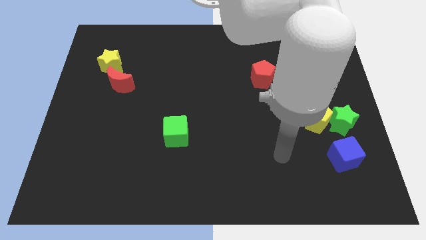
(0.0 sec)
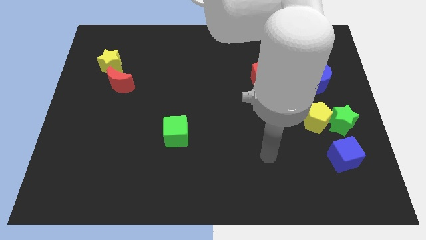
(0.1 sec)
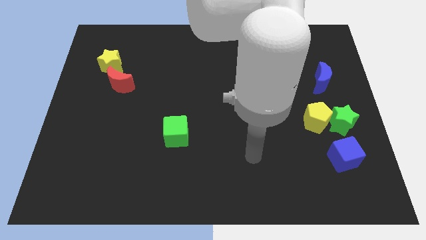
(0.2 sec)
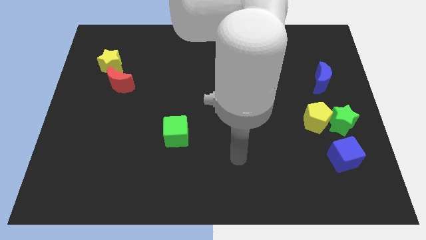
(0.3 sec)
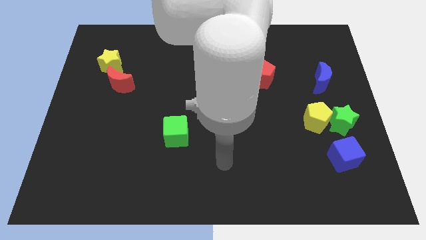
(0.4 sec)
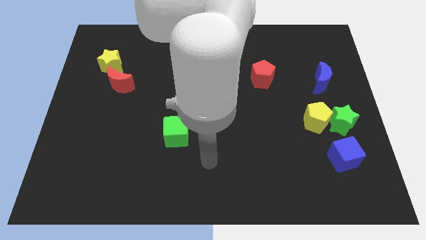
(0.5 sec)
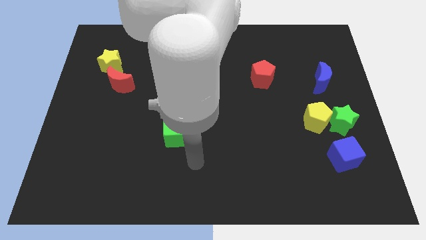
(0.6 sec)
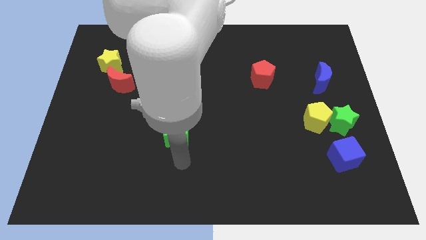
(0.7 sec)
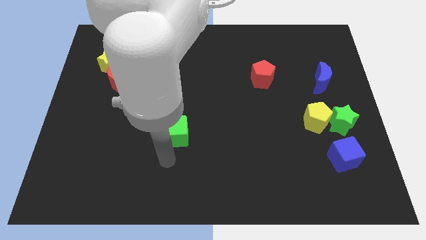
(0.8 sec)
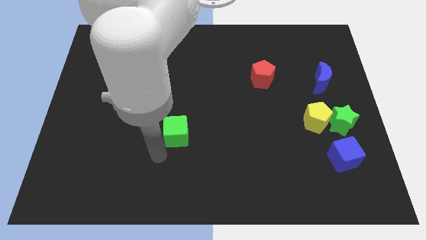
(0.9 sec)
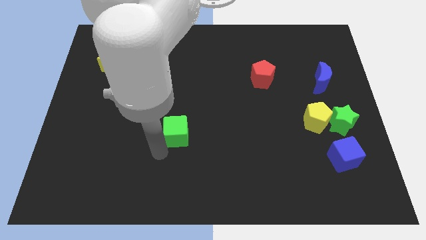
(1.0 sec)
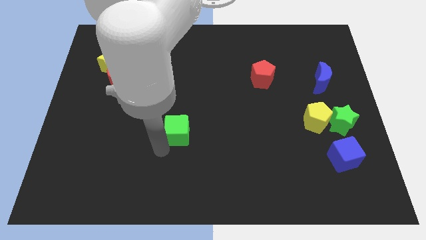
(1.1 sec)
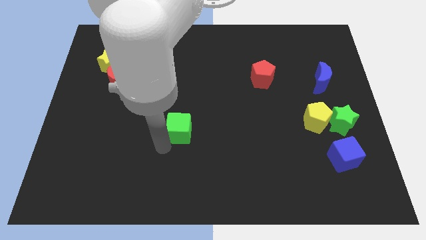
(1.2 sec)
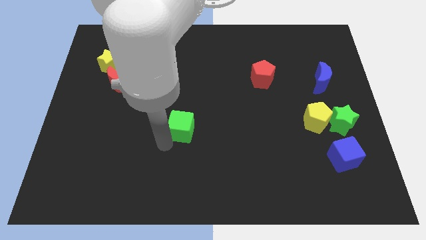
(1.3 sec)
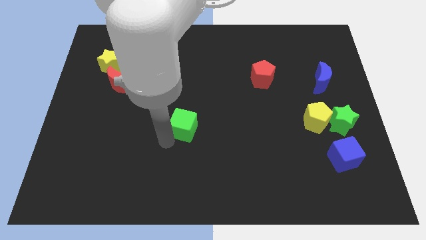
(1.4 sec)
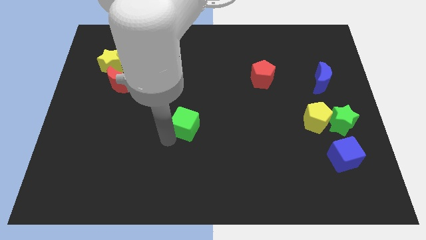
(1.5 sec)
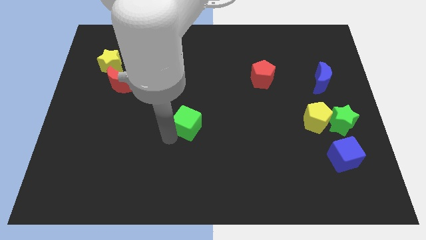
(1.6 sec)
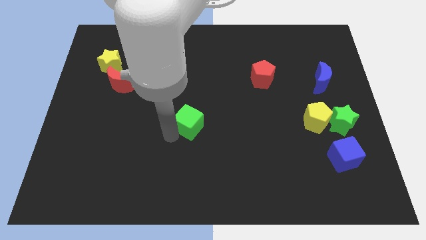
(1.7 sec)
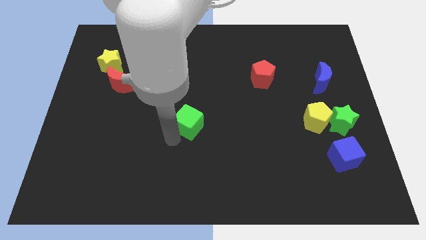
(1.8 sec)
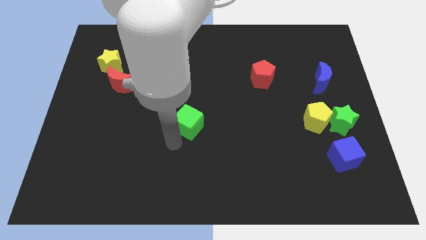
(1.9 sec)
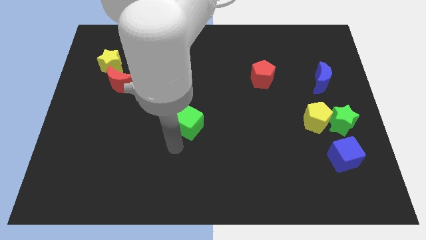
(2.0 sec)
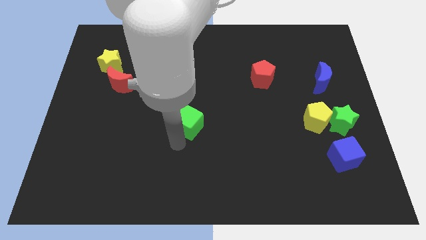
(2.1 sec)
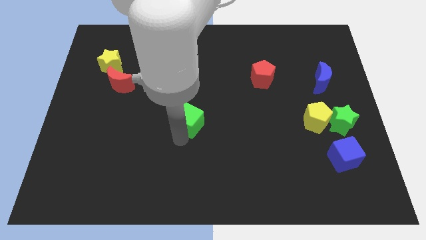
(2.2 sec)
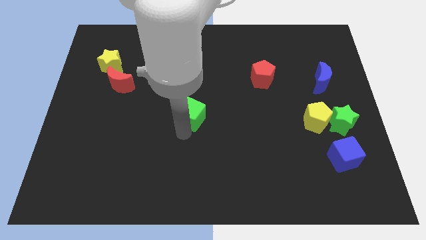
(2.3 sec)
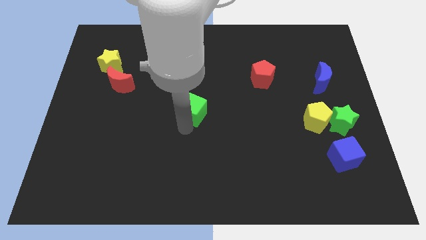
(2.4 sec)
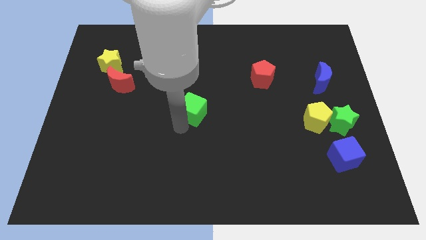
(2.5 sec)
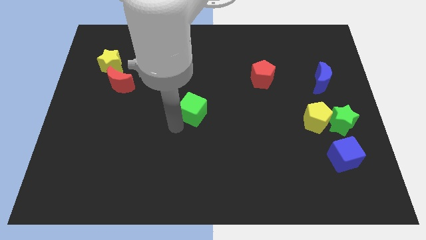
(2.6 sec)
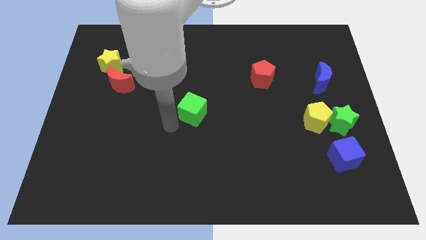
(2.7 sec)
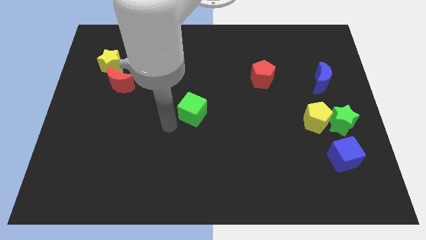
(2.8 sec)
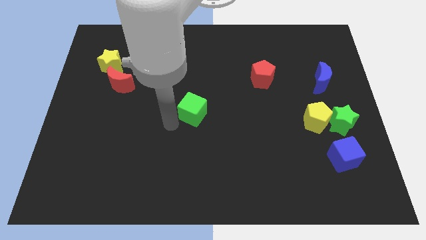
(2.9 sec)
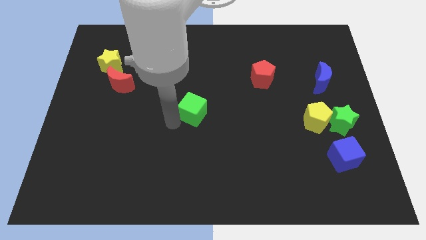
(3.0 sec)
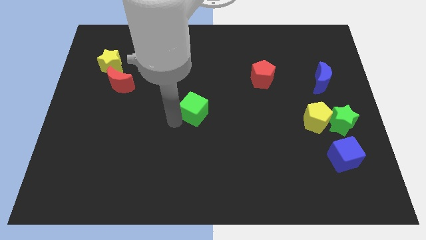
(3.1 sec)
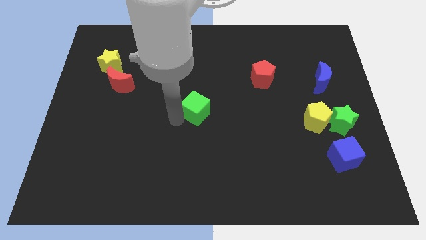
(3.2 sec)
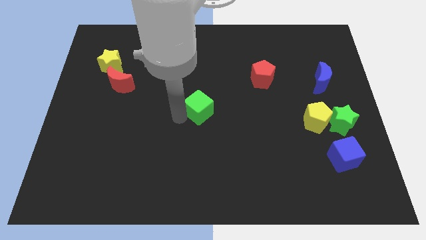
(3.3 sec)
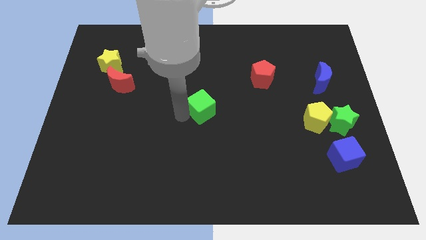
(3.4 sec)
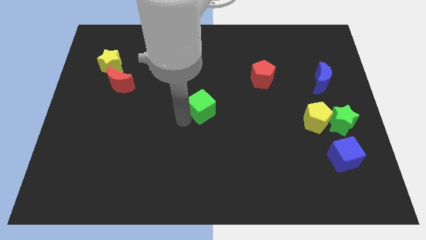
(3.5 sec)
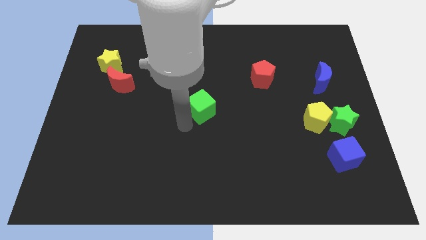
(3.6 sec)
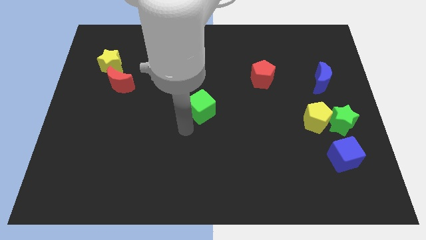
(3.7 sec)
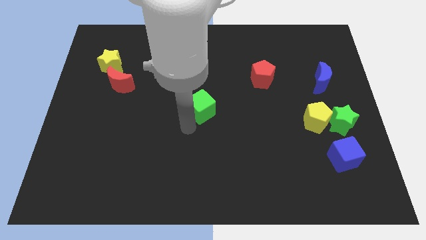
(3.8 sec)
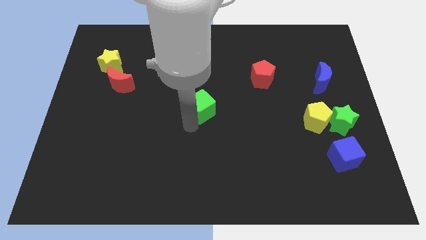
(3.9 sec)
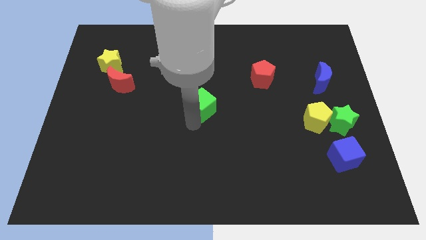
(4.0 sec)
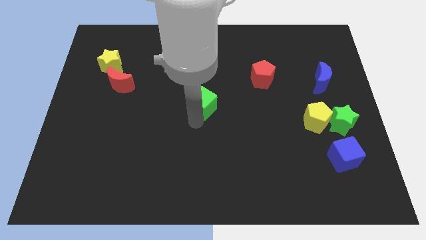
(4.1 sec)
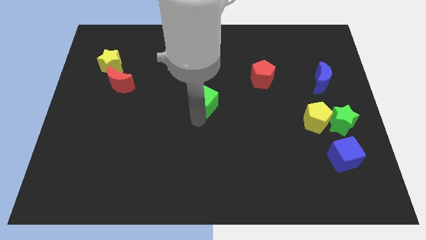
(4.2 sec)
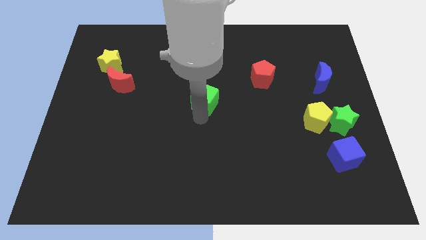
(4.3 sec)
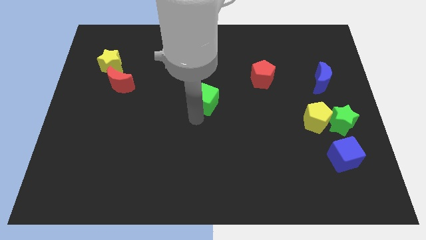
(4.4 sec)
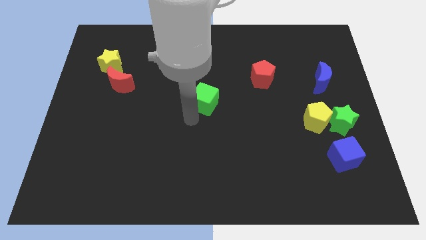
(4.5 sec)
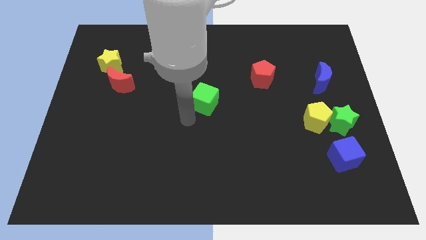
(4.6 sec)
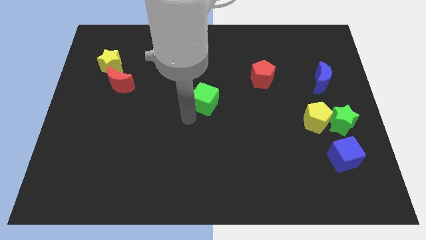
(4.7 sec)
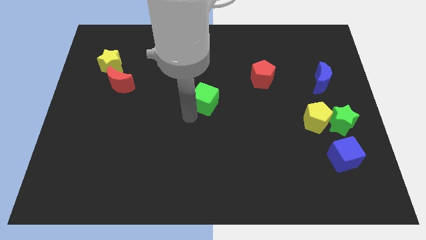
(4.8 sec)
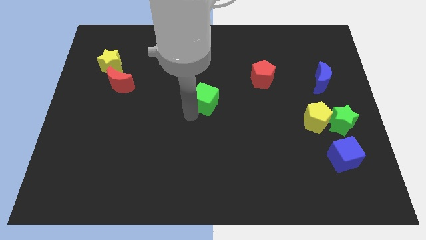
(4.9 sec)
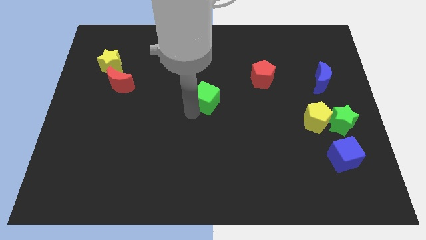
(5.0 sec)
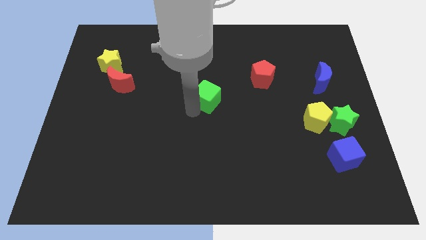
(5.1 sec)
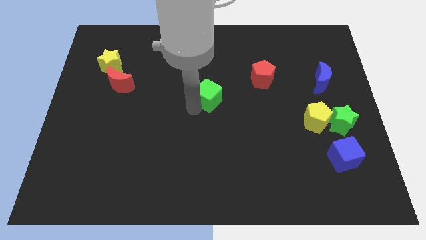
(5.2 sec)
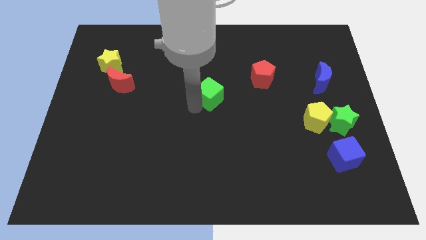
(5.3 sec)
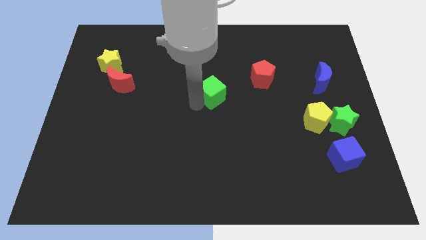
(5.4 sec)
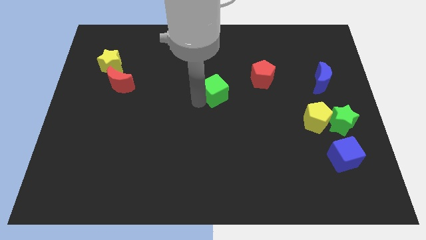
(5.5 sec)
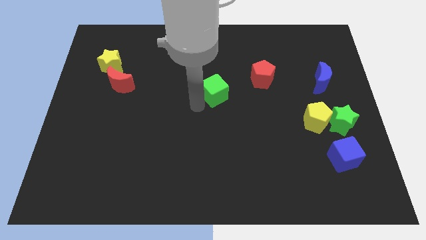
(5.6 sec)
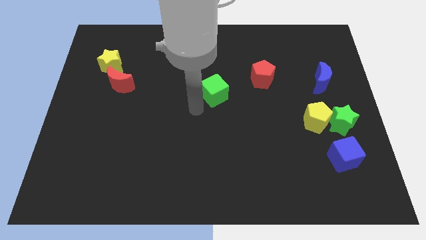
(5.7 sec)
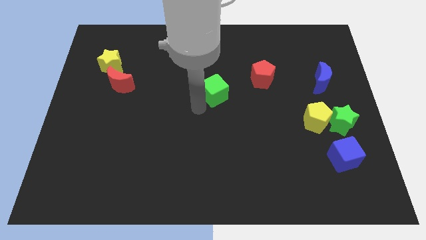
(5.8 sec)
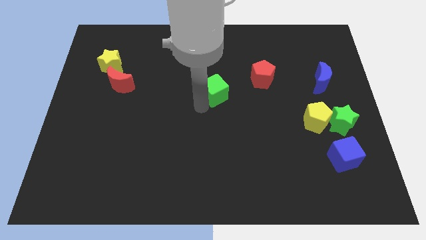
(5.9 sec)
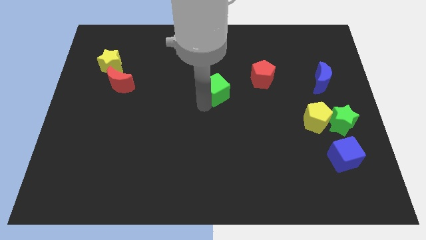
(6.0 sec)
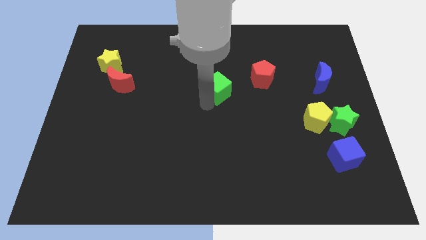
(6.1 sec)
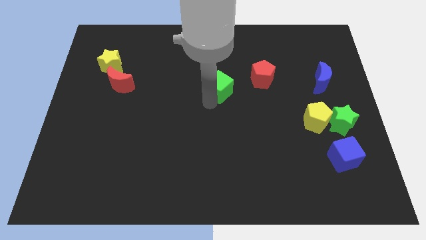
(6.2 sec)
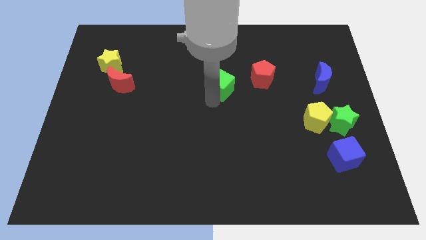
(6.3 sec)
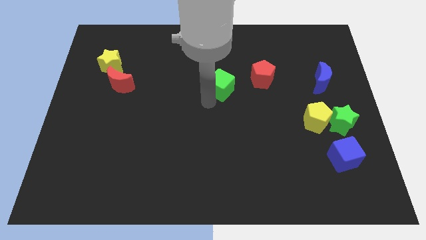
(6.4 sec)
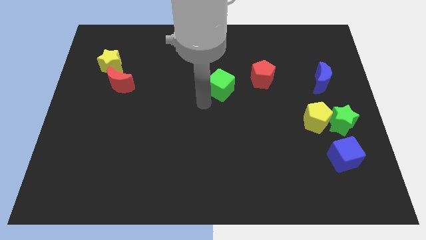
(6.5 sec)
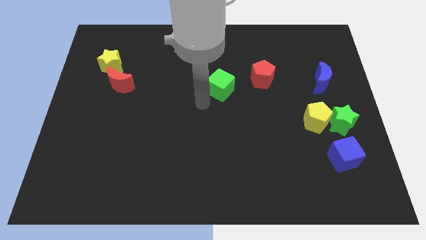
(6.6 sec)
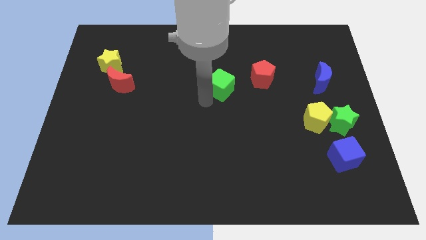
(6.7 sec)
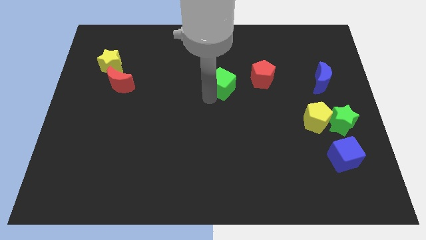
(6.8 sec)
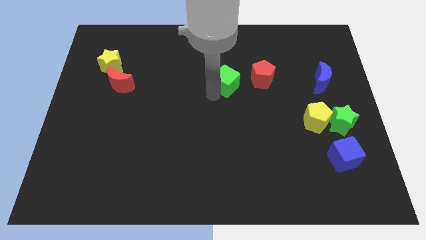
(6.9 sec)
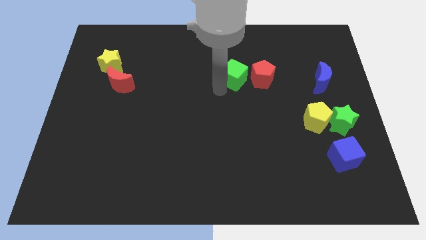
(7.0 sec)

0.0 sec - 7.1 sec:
slide the green cube up and to the right

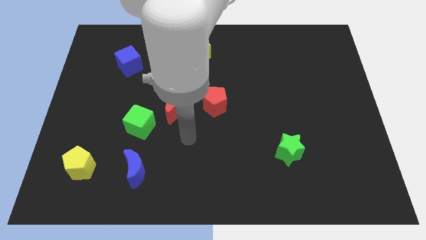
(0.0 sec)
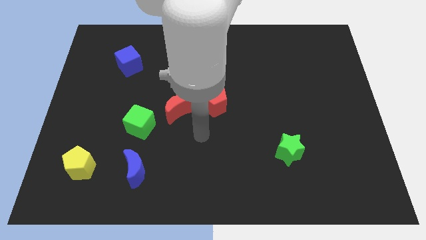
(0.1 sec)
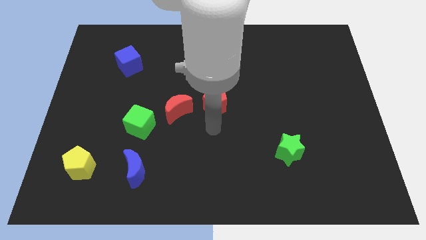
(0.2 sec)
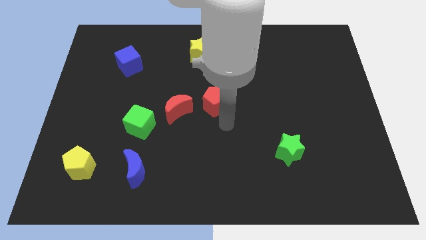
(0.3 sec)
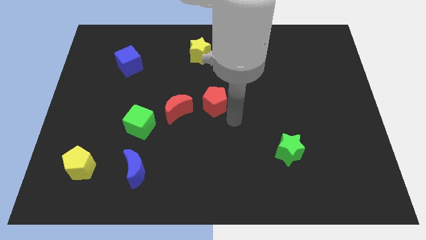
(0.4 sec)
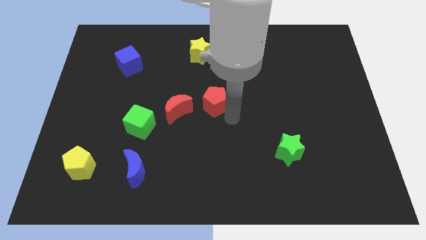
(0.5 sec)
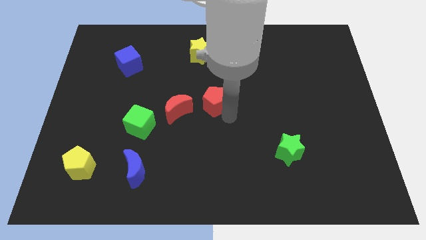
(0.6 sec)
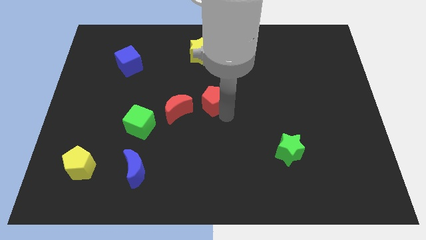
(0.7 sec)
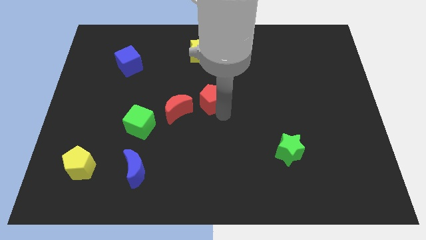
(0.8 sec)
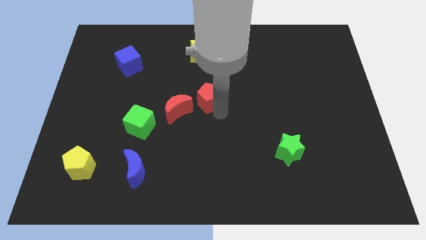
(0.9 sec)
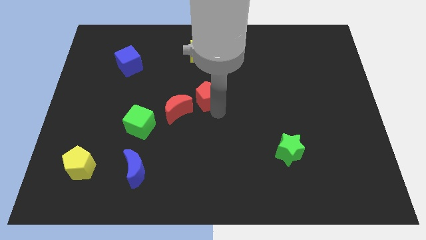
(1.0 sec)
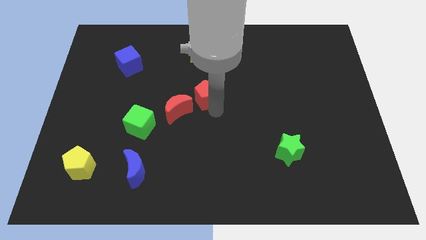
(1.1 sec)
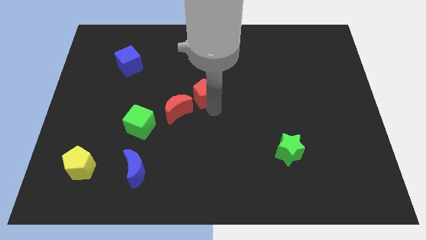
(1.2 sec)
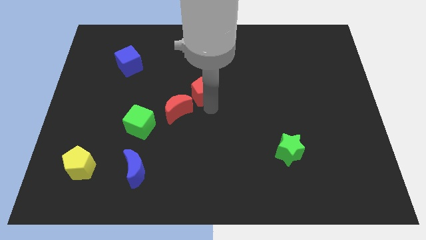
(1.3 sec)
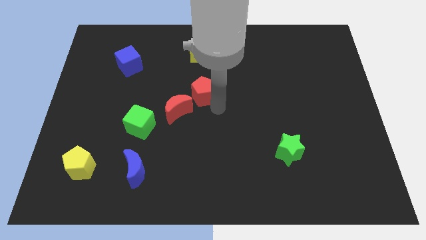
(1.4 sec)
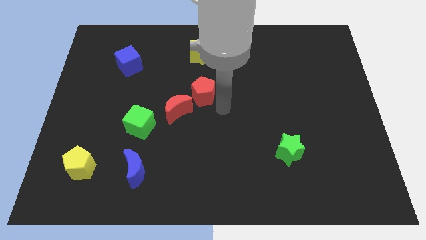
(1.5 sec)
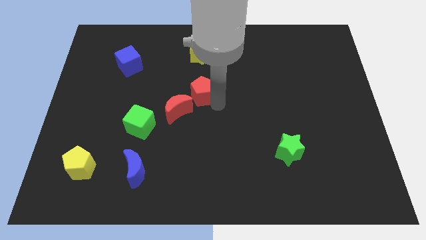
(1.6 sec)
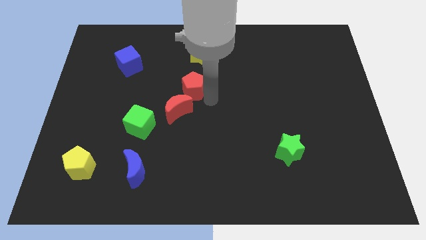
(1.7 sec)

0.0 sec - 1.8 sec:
push the red pentagon somewhat up and then to the left
